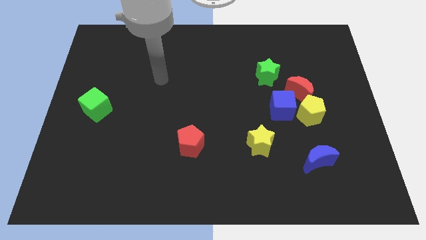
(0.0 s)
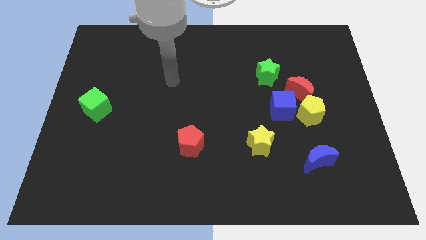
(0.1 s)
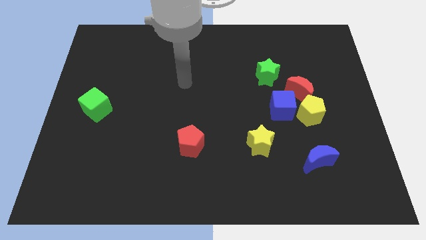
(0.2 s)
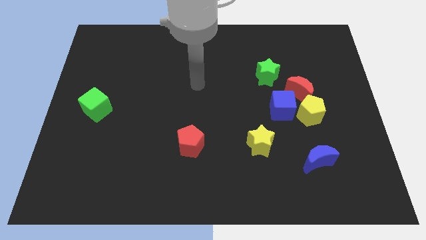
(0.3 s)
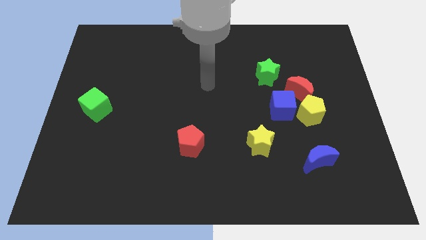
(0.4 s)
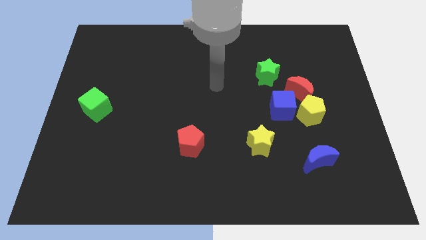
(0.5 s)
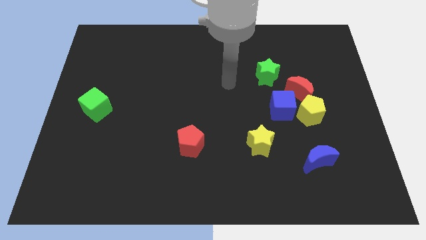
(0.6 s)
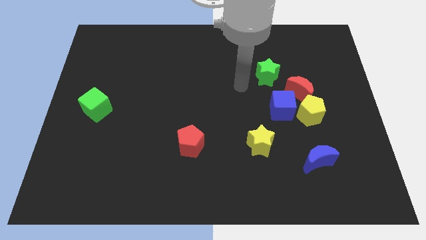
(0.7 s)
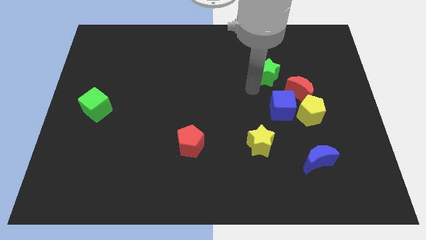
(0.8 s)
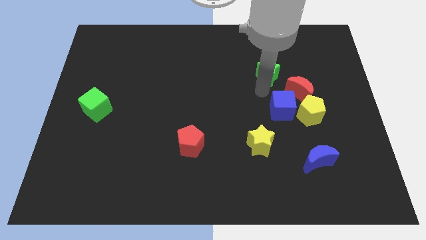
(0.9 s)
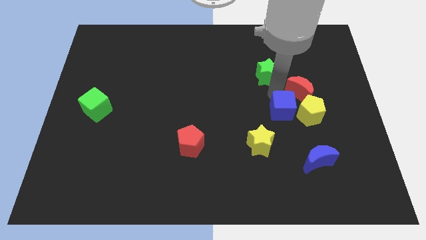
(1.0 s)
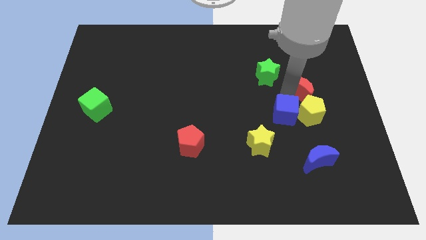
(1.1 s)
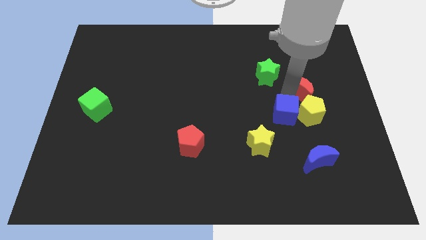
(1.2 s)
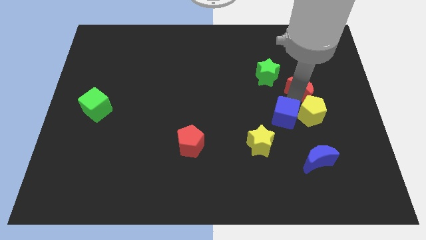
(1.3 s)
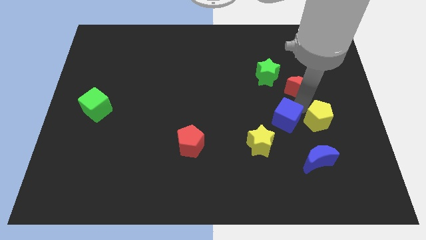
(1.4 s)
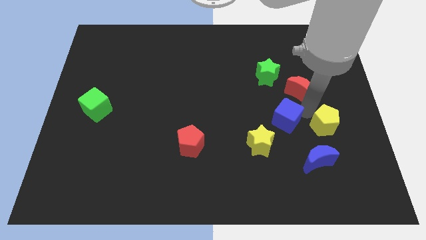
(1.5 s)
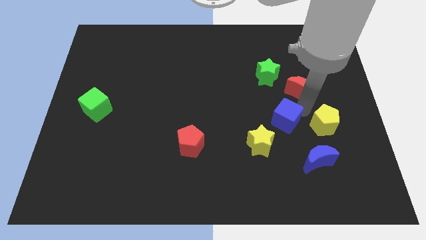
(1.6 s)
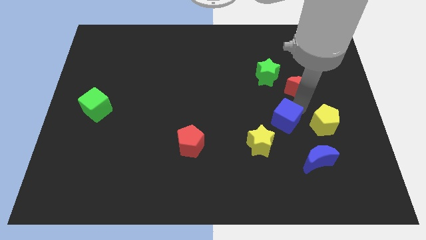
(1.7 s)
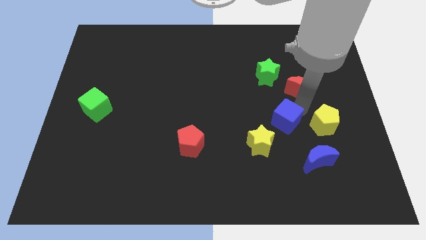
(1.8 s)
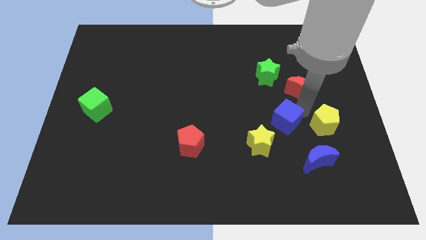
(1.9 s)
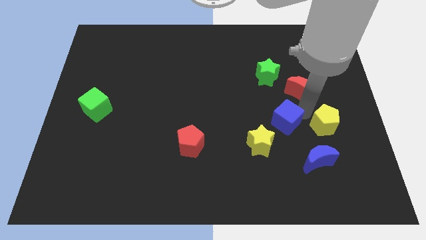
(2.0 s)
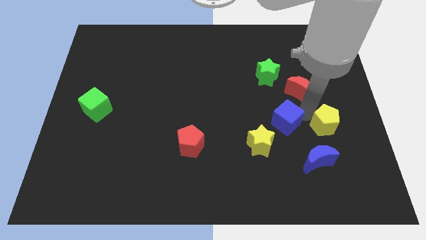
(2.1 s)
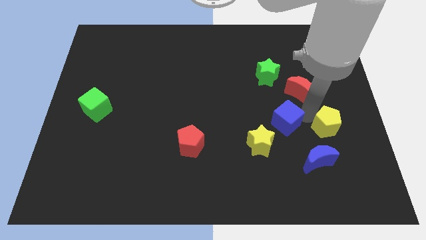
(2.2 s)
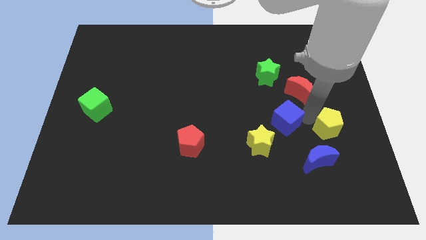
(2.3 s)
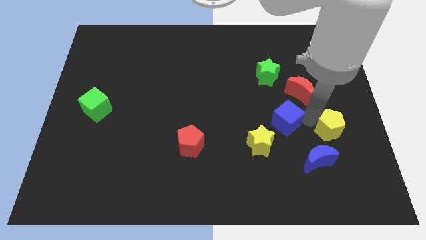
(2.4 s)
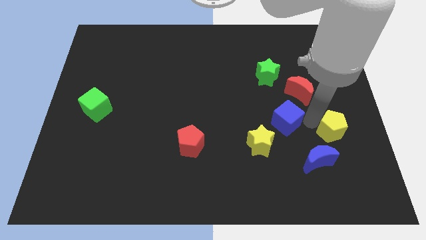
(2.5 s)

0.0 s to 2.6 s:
pull the yellow pentagon apart from the blue cube and red moon

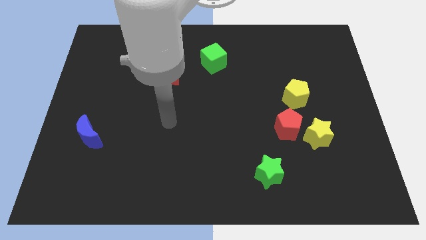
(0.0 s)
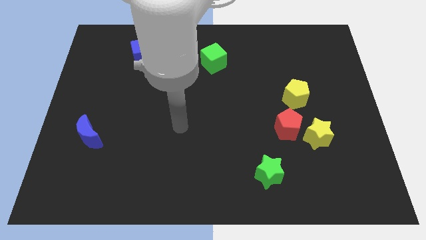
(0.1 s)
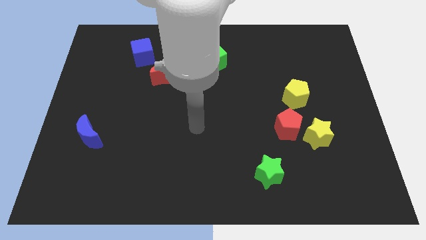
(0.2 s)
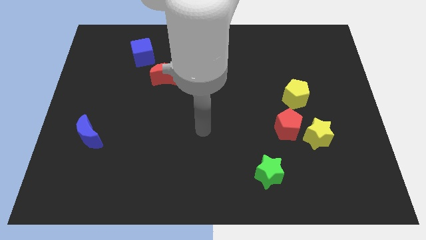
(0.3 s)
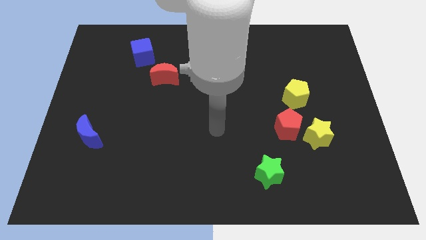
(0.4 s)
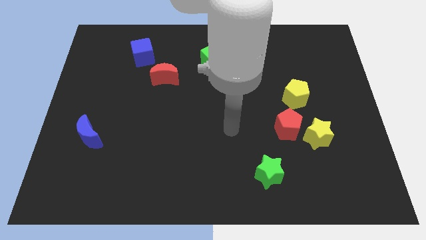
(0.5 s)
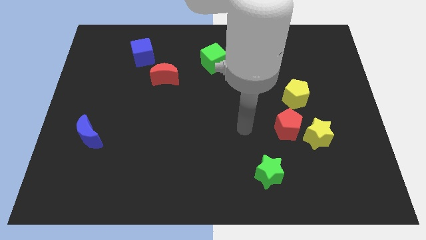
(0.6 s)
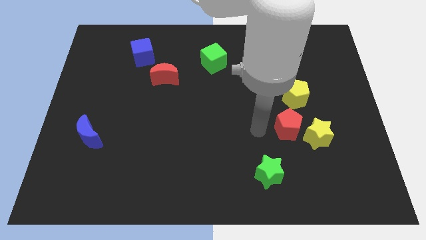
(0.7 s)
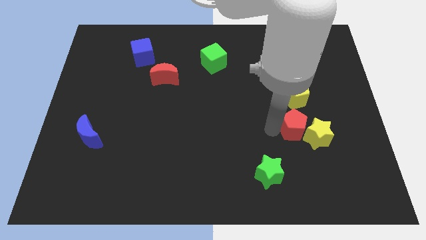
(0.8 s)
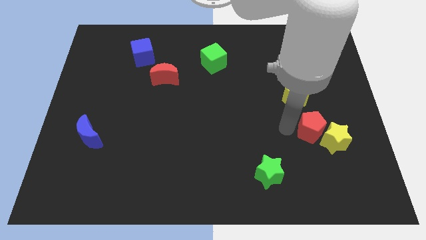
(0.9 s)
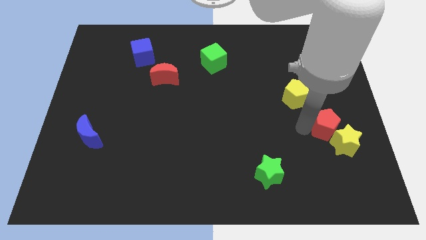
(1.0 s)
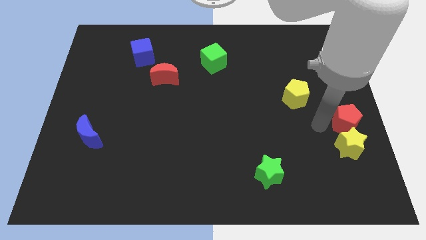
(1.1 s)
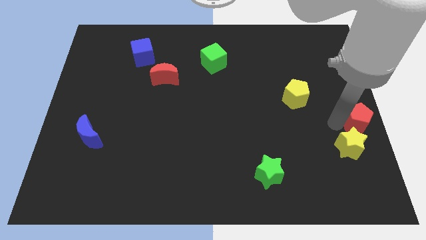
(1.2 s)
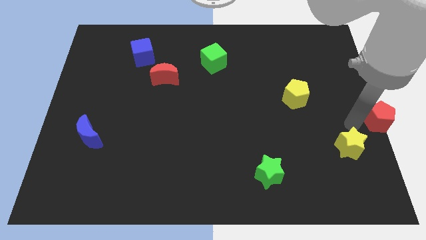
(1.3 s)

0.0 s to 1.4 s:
pull the yellow star apart from the red pentagon

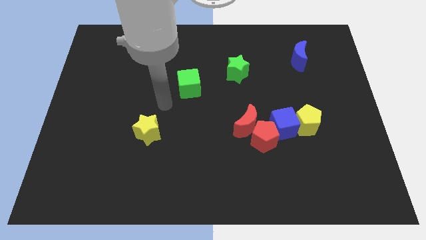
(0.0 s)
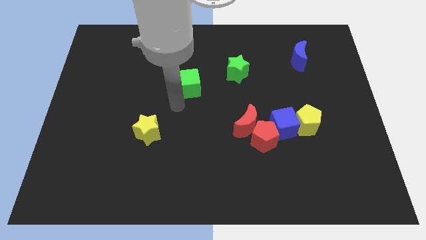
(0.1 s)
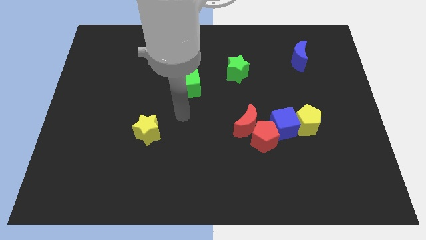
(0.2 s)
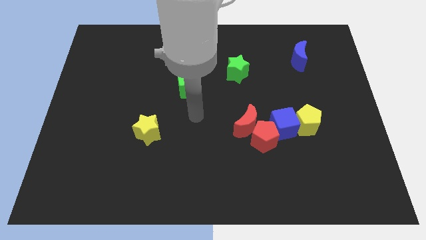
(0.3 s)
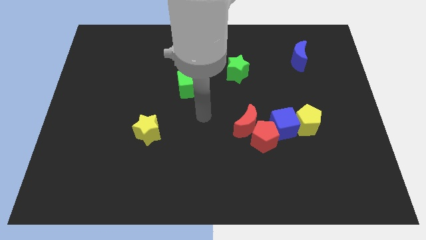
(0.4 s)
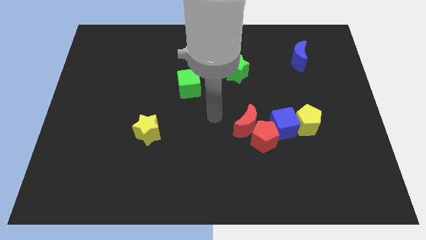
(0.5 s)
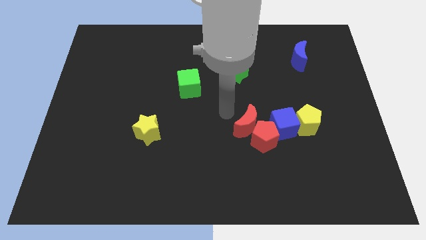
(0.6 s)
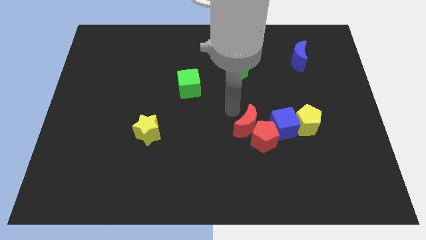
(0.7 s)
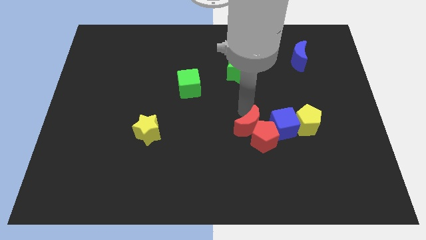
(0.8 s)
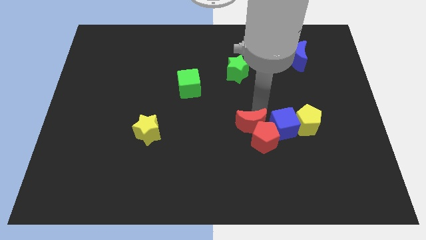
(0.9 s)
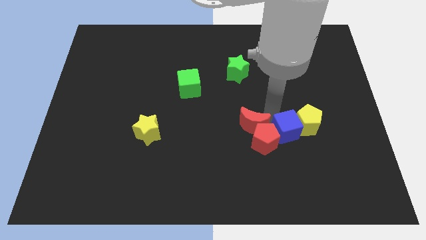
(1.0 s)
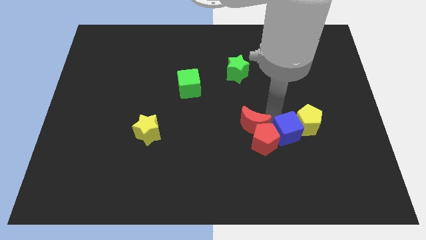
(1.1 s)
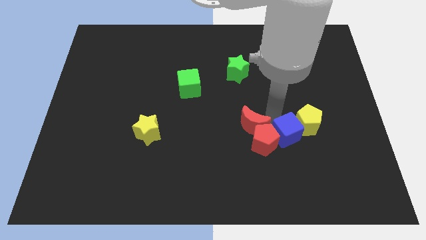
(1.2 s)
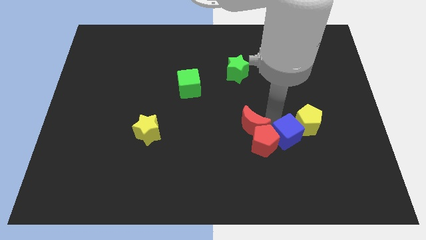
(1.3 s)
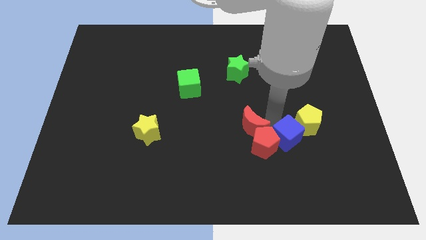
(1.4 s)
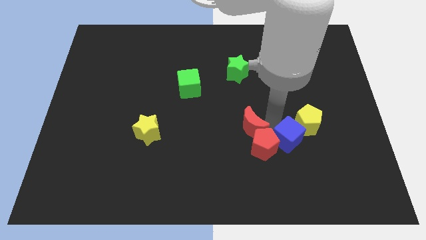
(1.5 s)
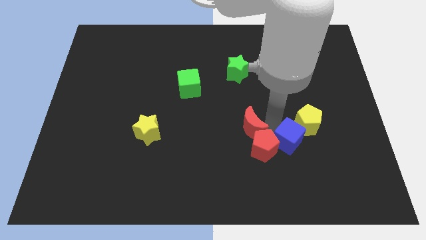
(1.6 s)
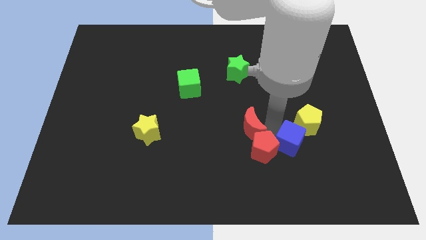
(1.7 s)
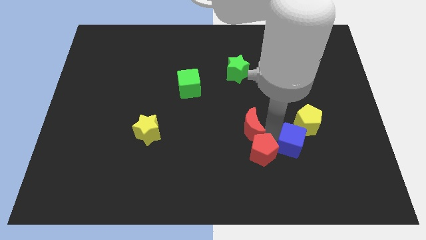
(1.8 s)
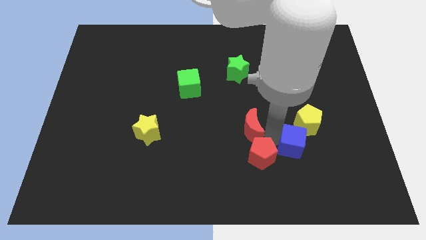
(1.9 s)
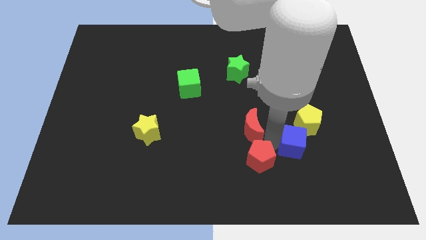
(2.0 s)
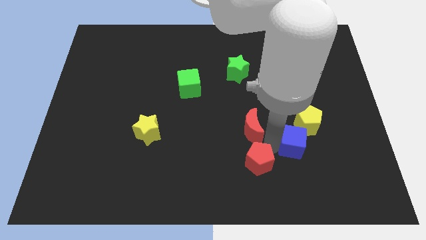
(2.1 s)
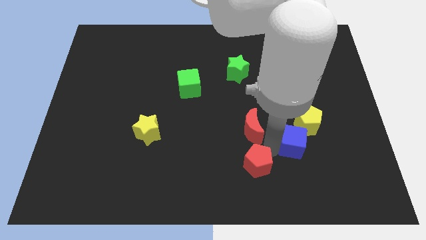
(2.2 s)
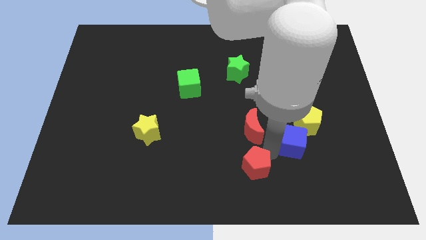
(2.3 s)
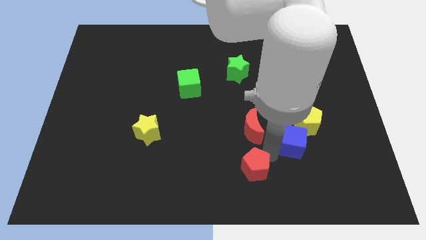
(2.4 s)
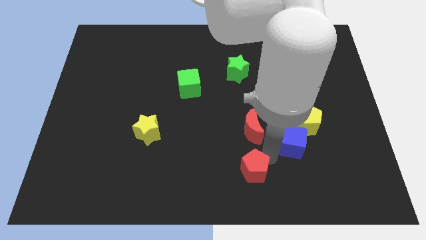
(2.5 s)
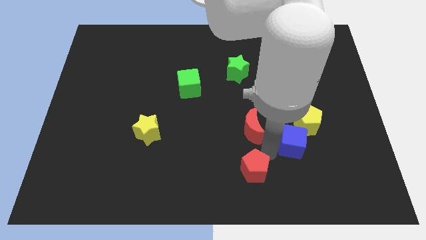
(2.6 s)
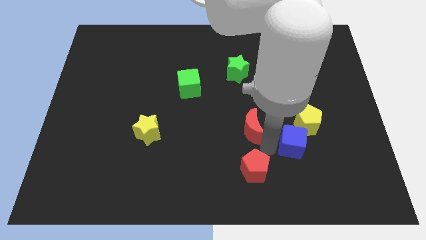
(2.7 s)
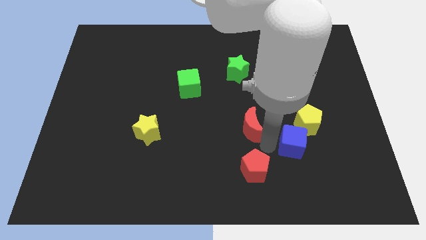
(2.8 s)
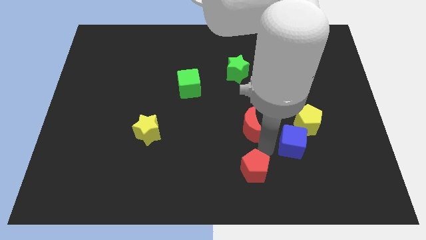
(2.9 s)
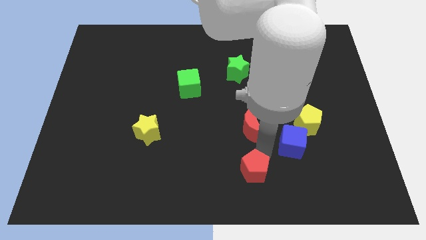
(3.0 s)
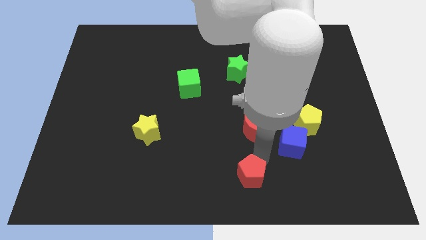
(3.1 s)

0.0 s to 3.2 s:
pull the red pentagon apart from the red moon and blue cube

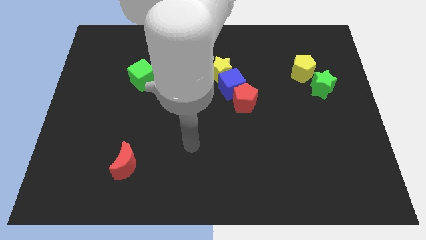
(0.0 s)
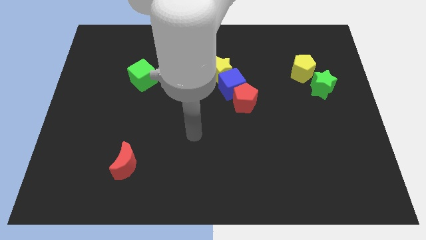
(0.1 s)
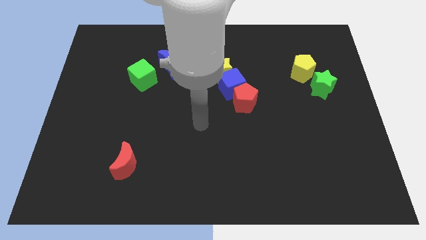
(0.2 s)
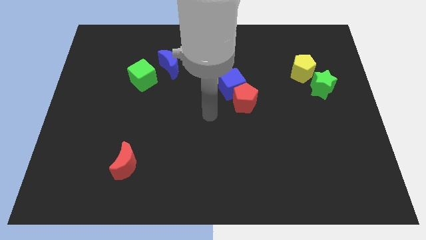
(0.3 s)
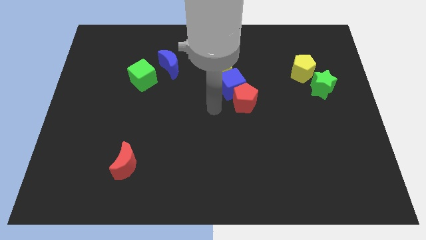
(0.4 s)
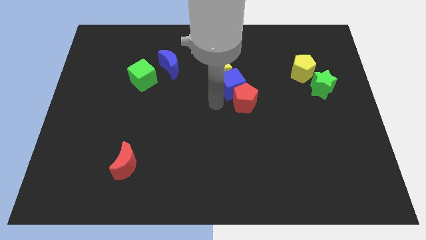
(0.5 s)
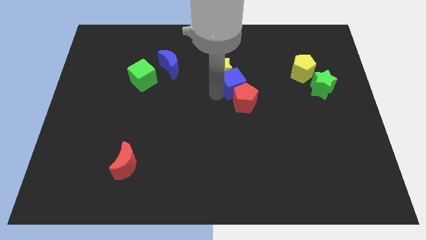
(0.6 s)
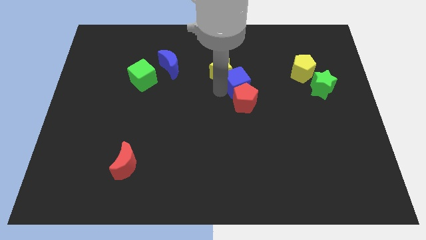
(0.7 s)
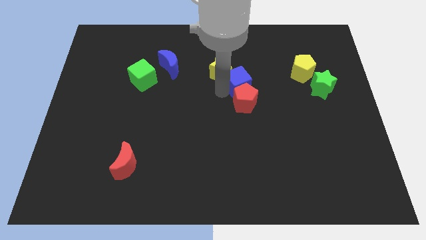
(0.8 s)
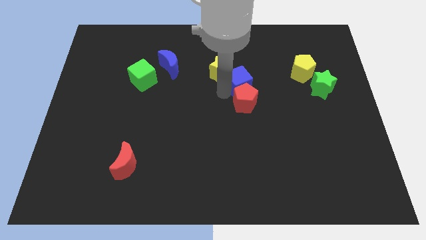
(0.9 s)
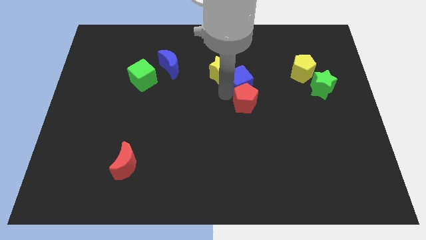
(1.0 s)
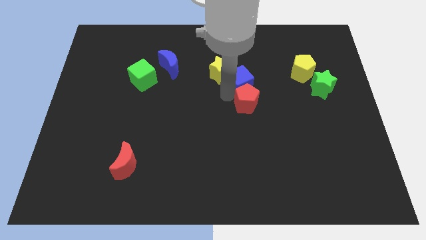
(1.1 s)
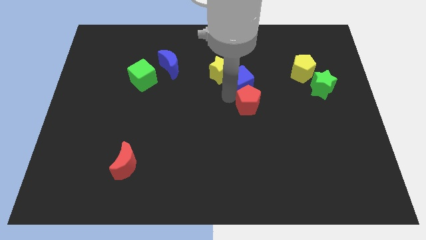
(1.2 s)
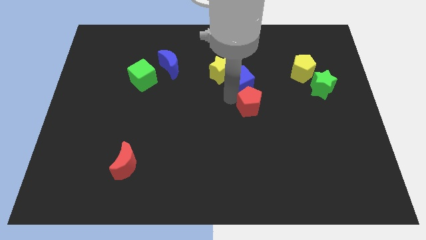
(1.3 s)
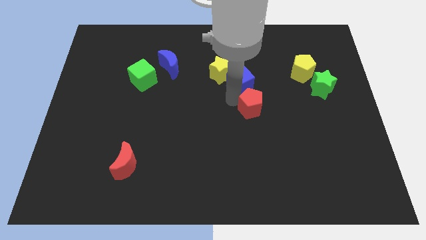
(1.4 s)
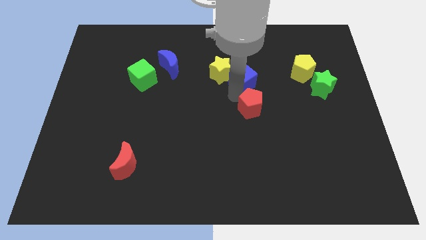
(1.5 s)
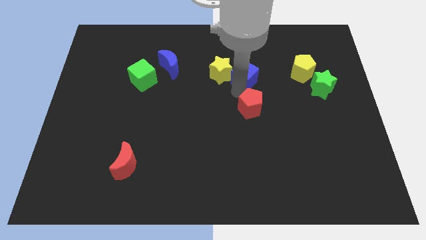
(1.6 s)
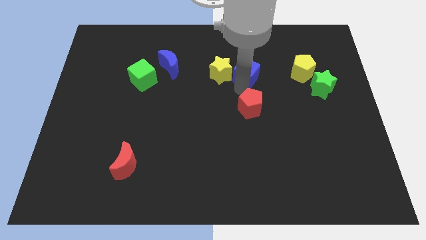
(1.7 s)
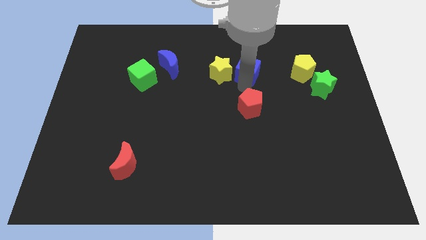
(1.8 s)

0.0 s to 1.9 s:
separate the red pentagon from the blue cube

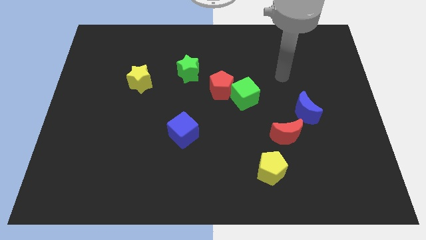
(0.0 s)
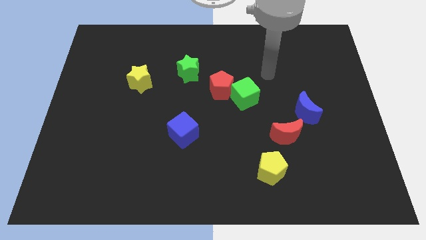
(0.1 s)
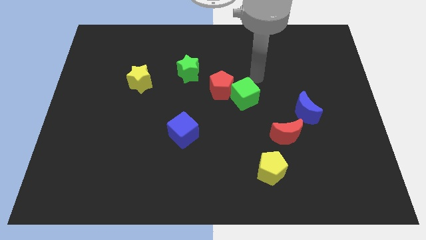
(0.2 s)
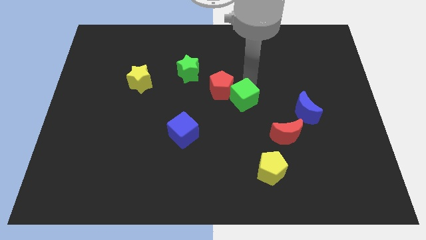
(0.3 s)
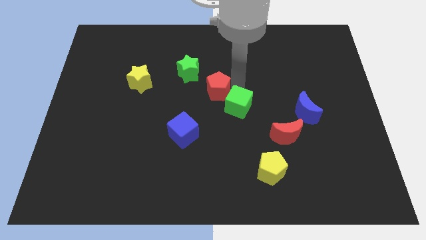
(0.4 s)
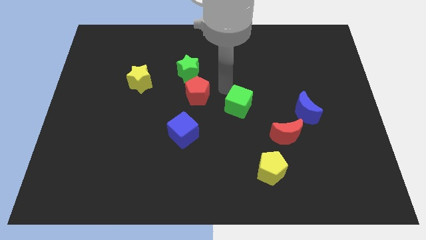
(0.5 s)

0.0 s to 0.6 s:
move the green cube away from the red pentagon
